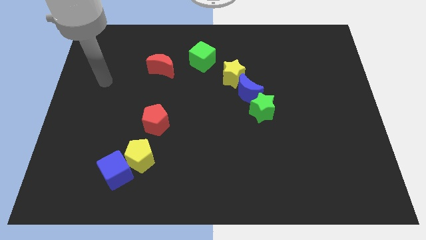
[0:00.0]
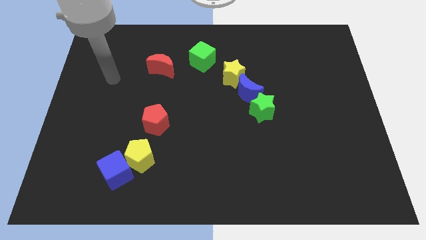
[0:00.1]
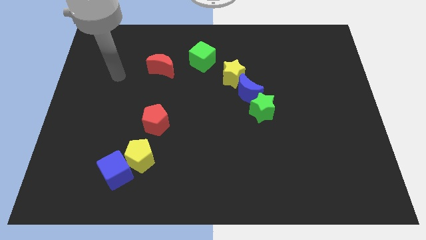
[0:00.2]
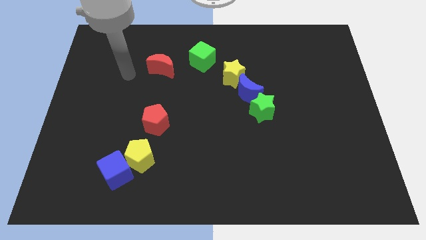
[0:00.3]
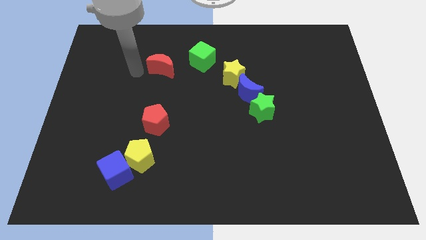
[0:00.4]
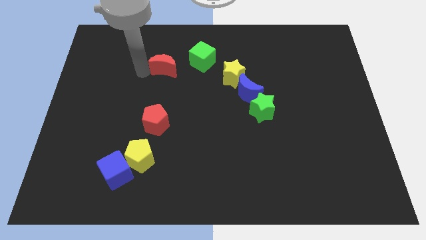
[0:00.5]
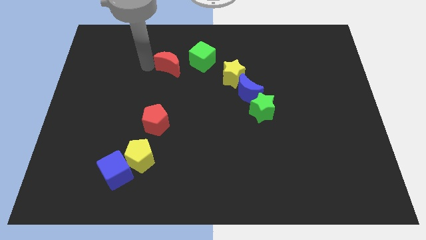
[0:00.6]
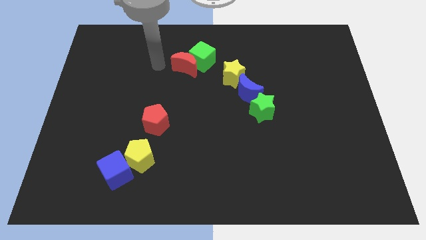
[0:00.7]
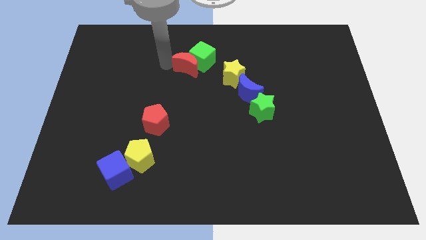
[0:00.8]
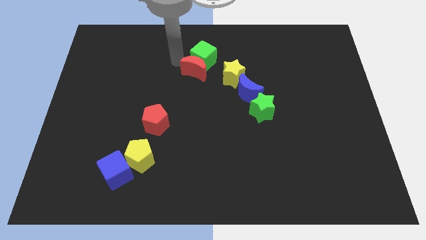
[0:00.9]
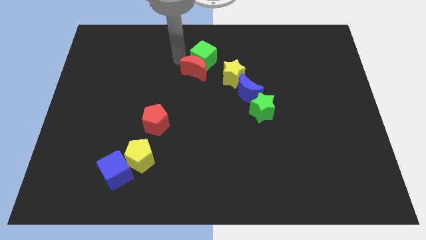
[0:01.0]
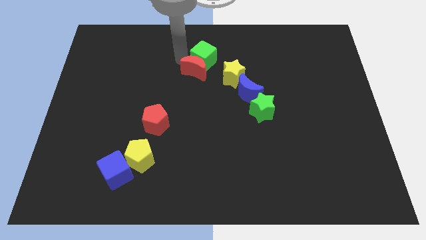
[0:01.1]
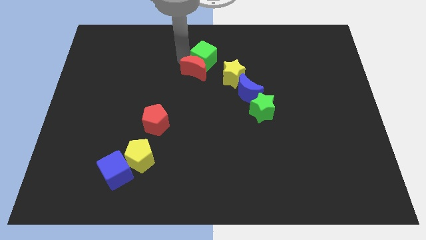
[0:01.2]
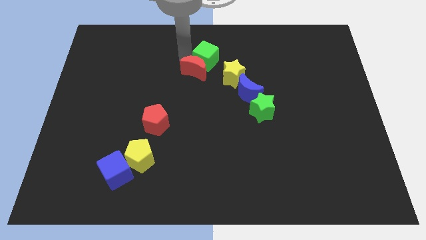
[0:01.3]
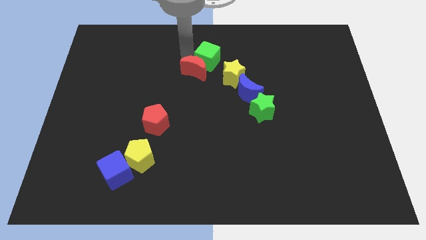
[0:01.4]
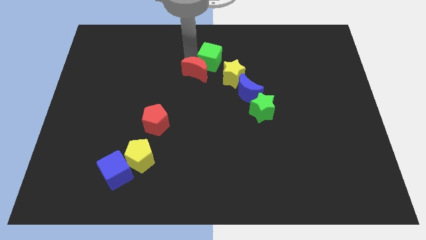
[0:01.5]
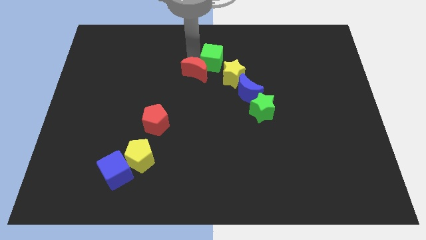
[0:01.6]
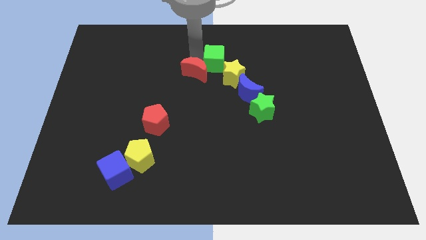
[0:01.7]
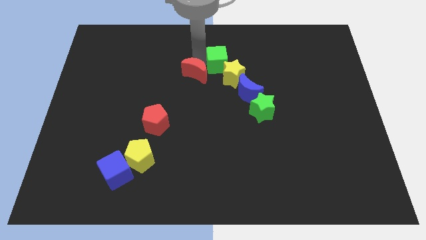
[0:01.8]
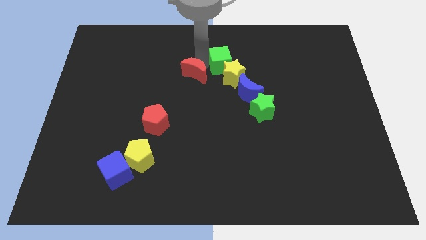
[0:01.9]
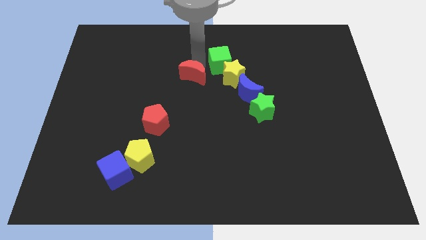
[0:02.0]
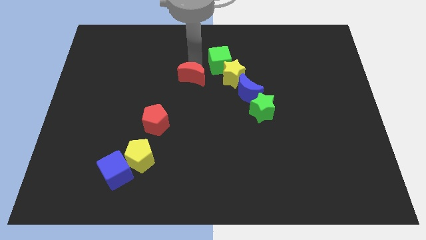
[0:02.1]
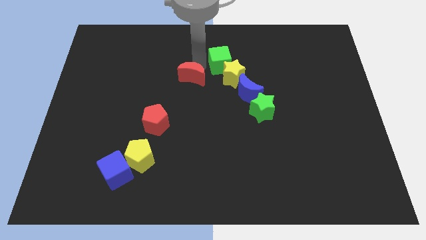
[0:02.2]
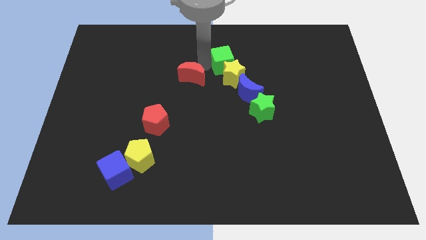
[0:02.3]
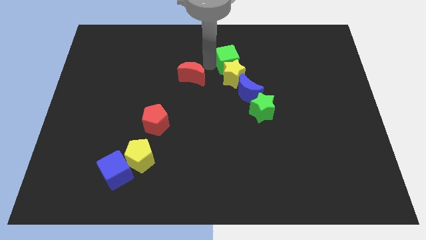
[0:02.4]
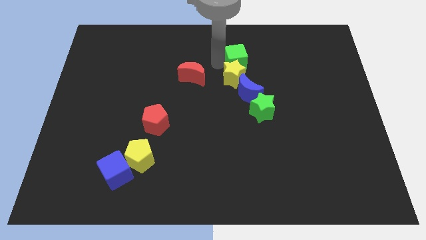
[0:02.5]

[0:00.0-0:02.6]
push the green cube somewhat to the right

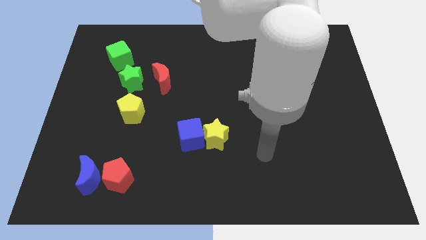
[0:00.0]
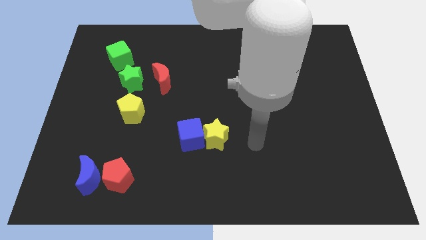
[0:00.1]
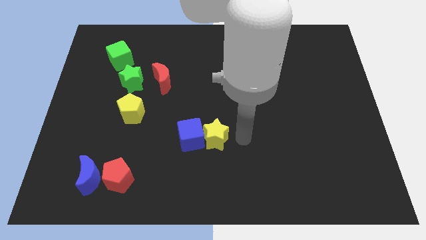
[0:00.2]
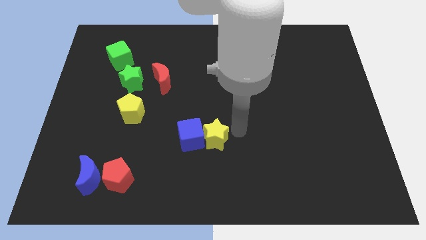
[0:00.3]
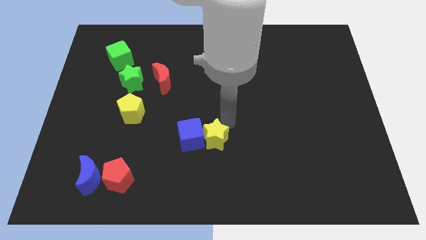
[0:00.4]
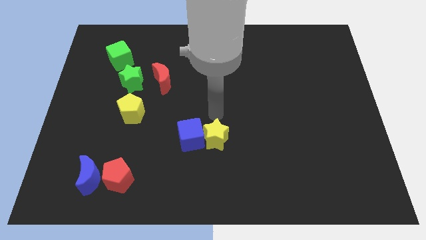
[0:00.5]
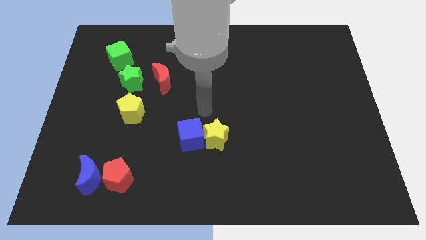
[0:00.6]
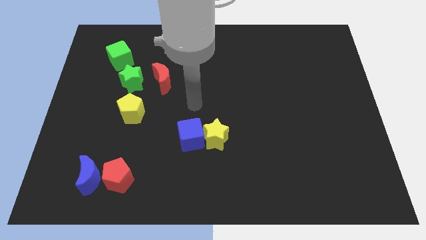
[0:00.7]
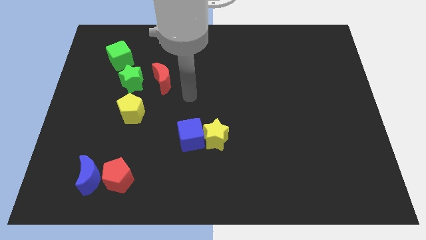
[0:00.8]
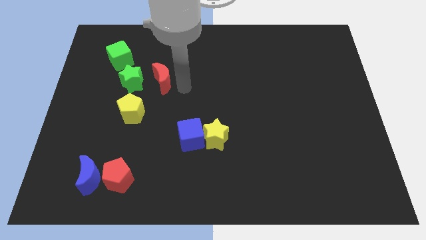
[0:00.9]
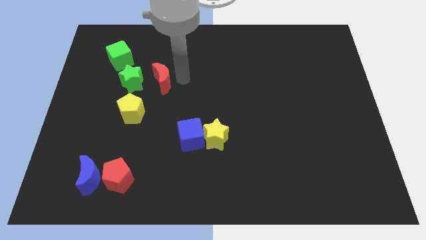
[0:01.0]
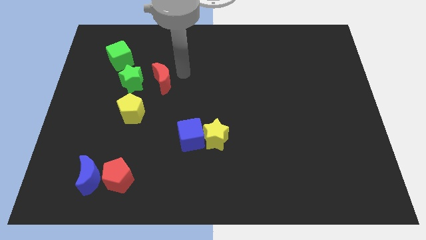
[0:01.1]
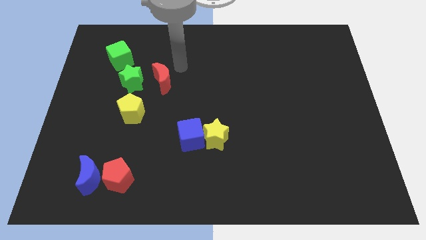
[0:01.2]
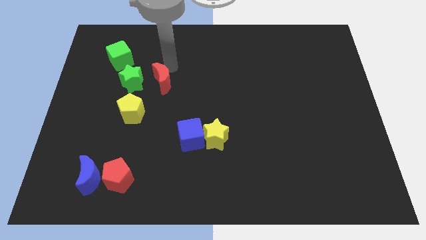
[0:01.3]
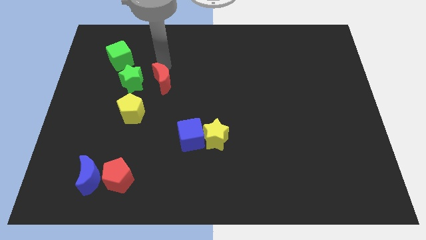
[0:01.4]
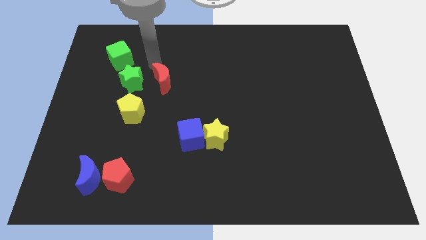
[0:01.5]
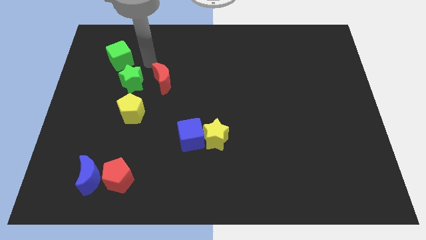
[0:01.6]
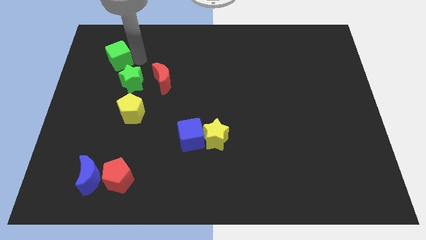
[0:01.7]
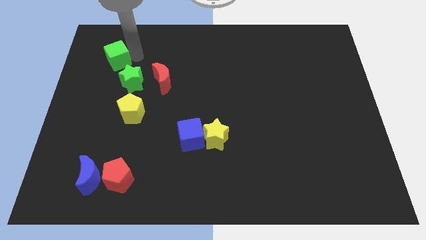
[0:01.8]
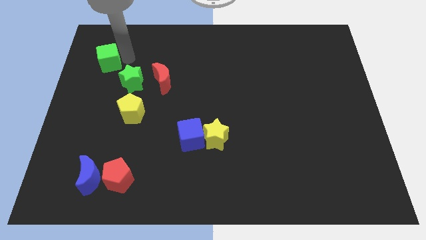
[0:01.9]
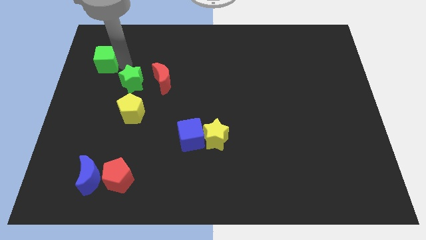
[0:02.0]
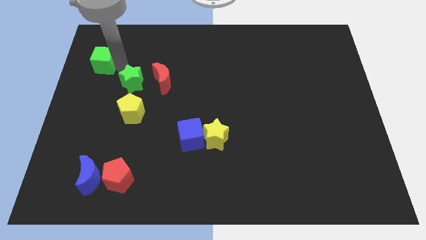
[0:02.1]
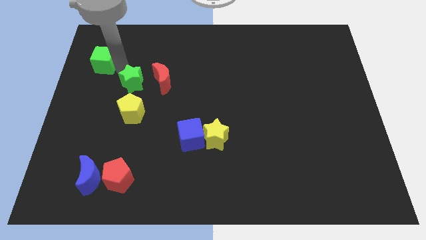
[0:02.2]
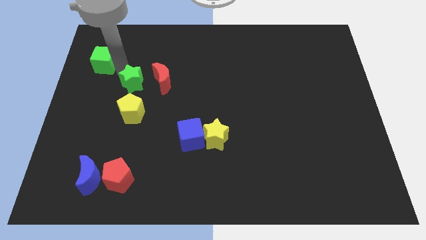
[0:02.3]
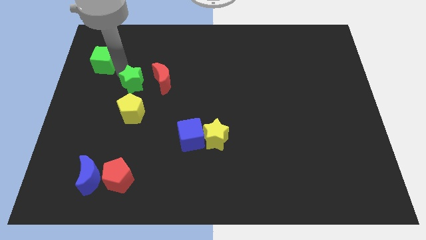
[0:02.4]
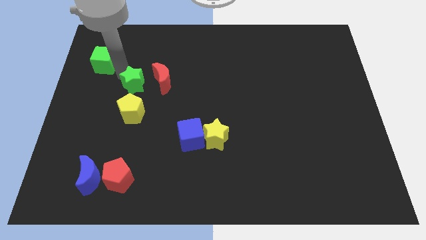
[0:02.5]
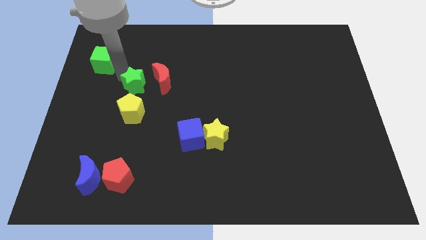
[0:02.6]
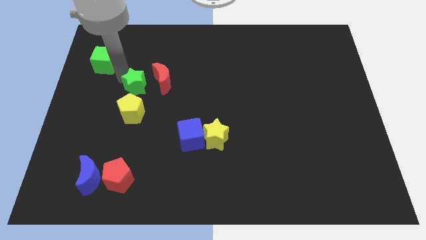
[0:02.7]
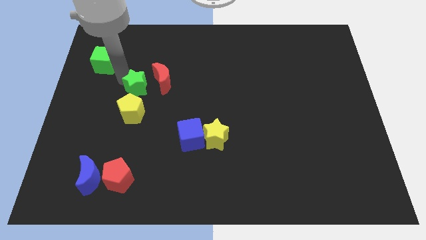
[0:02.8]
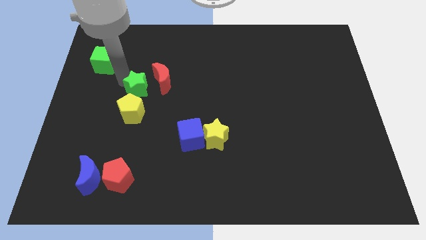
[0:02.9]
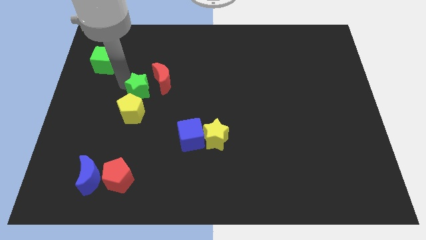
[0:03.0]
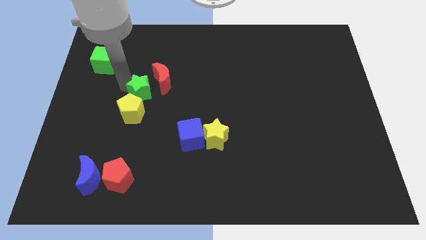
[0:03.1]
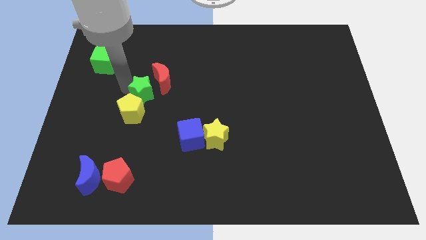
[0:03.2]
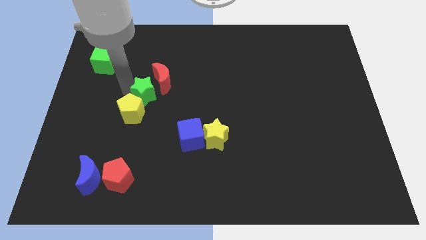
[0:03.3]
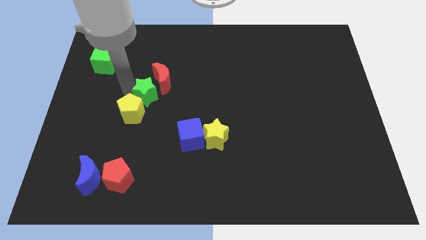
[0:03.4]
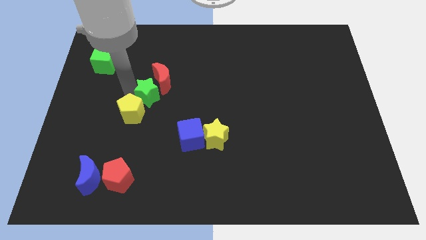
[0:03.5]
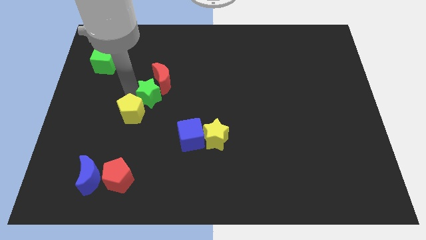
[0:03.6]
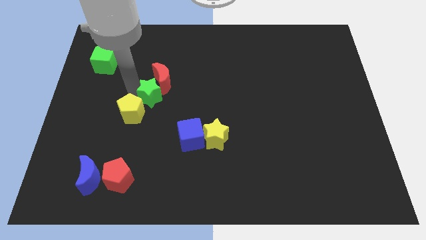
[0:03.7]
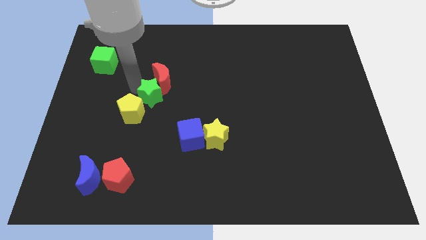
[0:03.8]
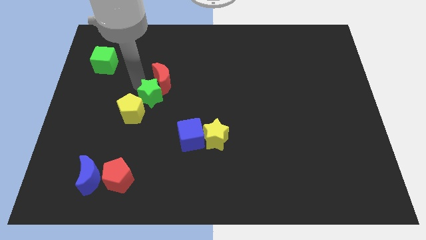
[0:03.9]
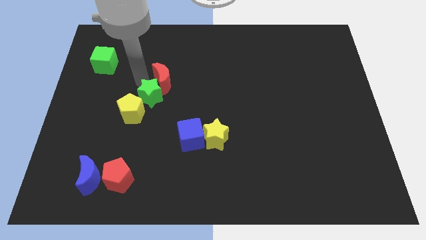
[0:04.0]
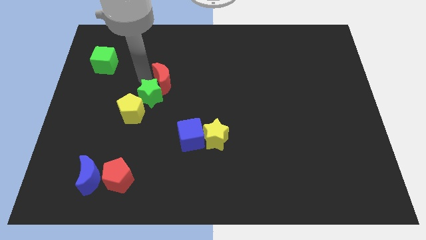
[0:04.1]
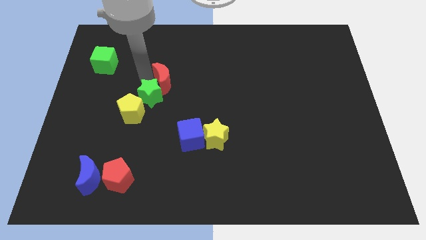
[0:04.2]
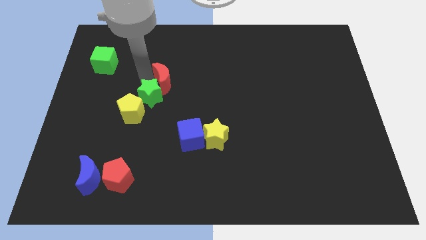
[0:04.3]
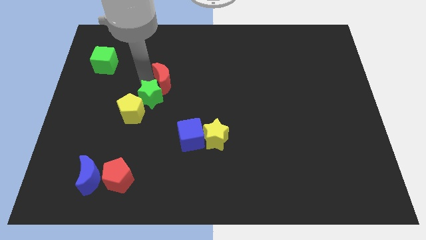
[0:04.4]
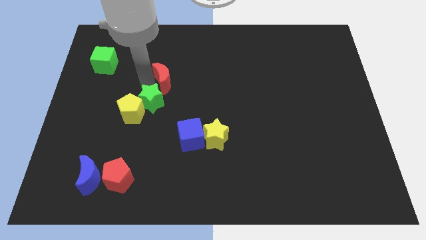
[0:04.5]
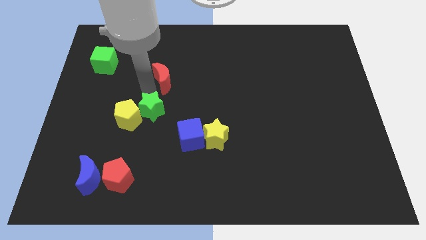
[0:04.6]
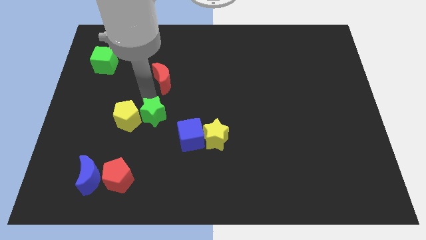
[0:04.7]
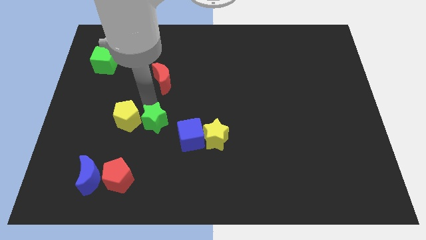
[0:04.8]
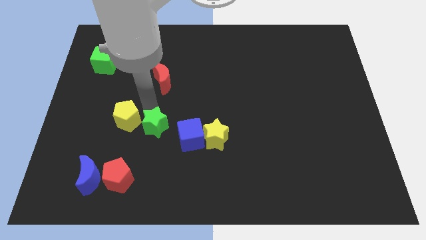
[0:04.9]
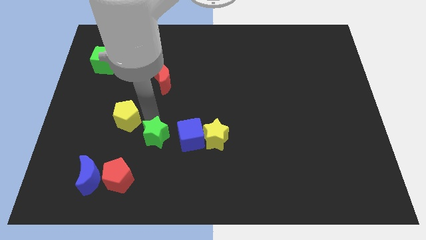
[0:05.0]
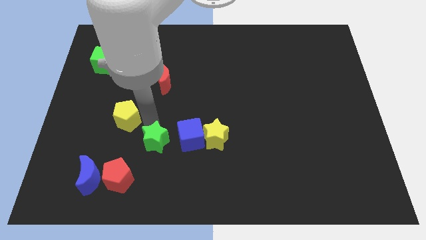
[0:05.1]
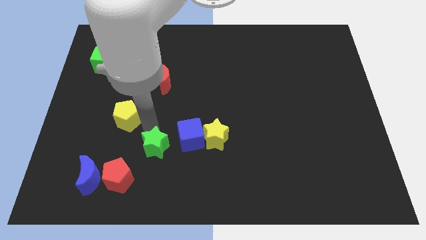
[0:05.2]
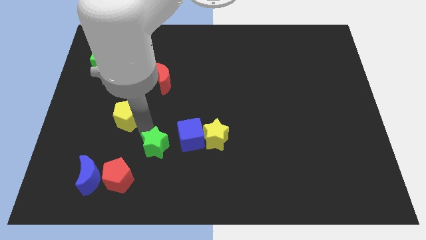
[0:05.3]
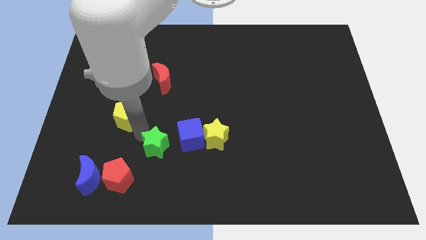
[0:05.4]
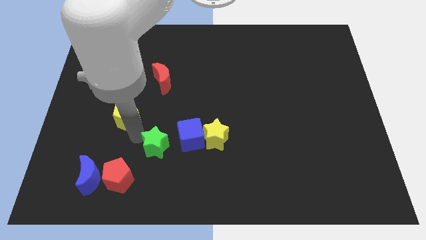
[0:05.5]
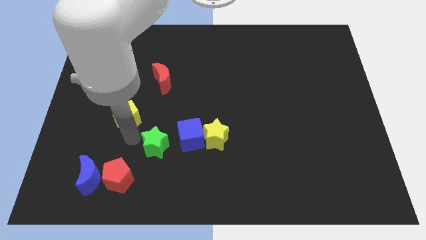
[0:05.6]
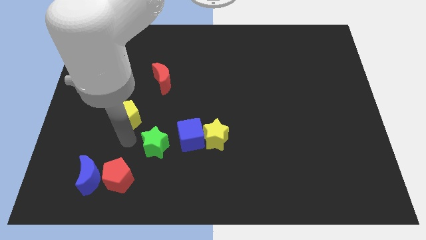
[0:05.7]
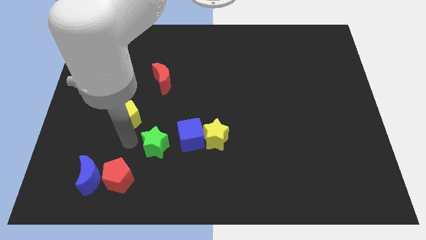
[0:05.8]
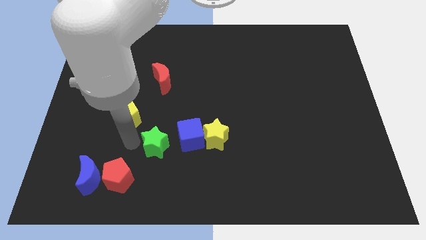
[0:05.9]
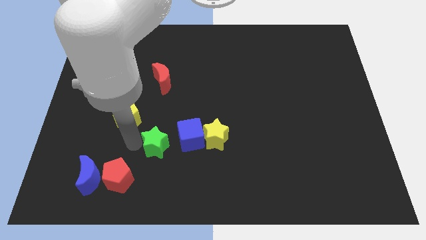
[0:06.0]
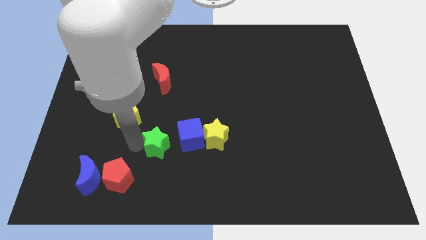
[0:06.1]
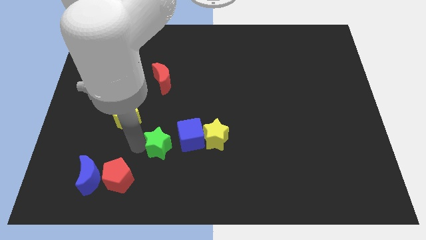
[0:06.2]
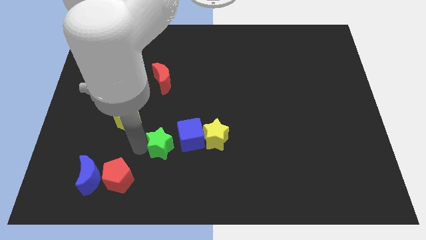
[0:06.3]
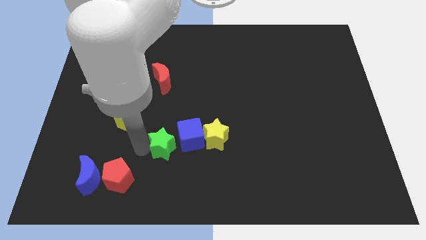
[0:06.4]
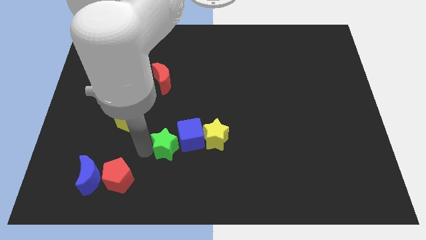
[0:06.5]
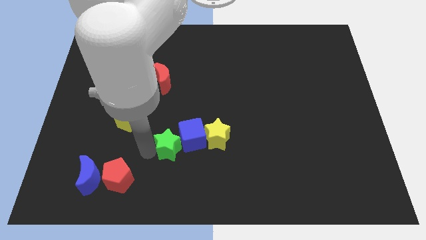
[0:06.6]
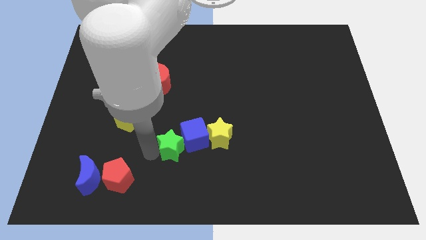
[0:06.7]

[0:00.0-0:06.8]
move the green star downwards and right diagonally
